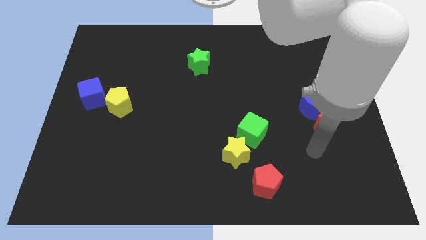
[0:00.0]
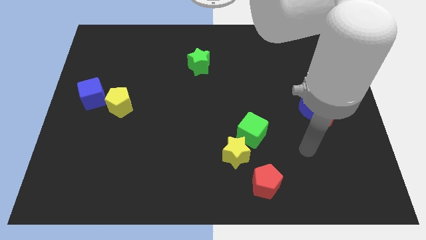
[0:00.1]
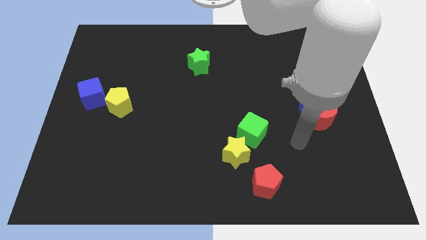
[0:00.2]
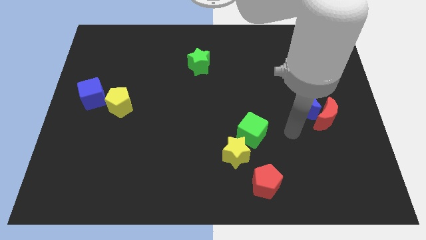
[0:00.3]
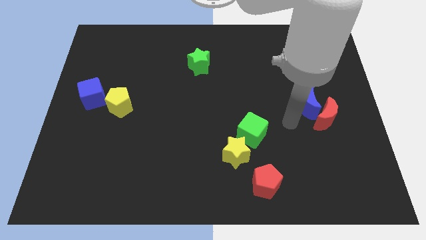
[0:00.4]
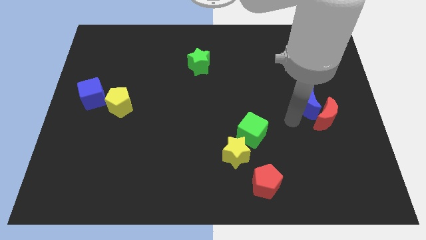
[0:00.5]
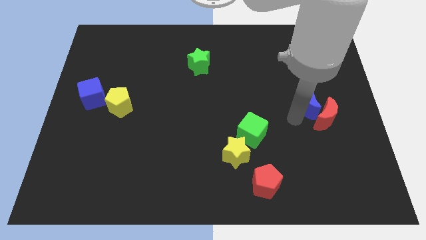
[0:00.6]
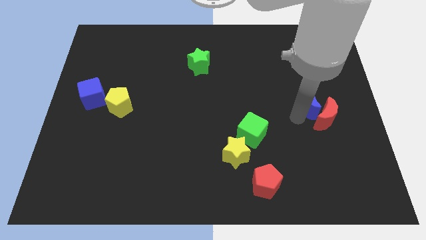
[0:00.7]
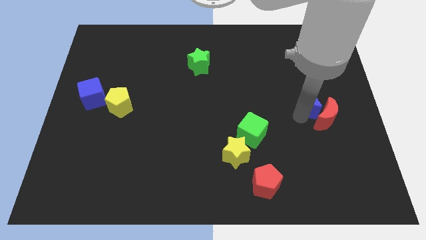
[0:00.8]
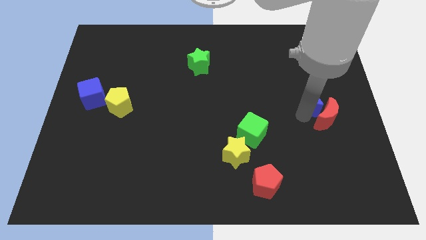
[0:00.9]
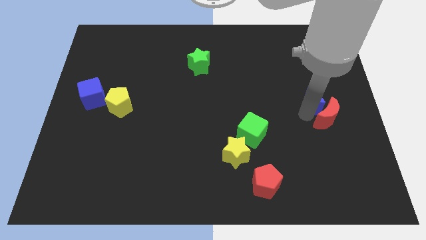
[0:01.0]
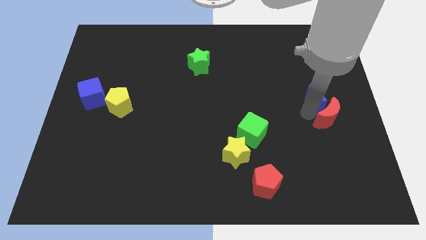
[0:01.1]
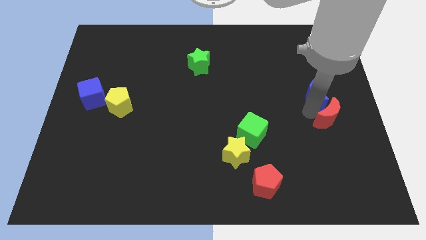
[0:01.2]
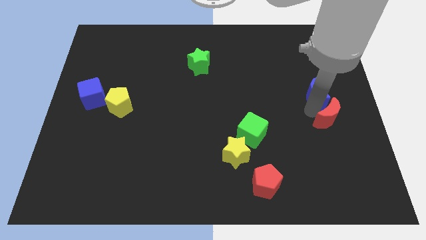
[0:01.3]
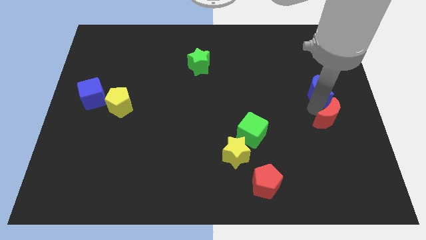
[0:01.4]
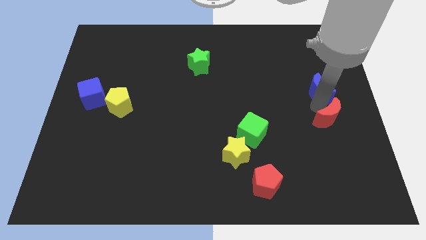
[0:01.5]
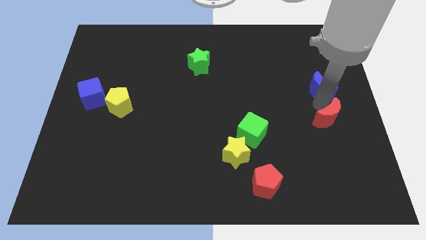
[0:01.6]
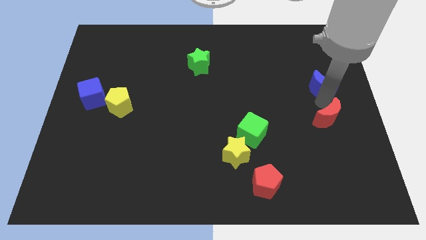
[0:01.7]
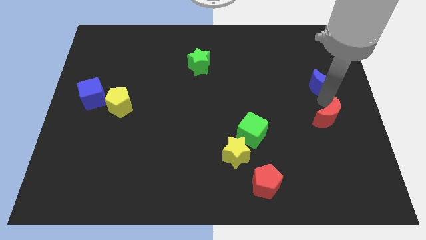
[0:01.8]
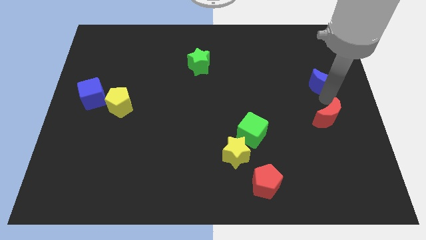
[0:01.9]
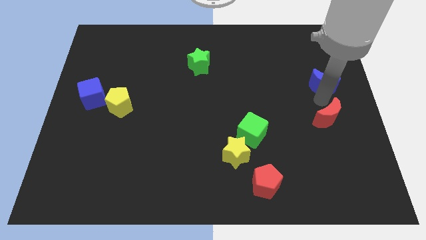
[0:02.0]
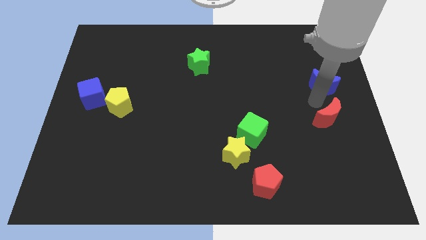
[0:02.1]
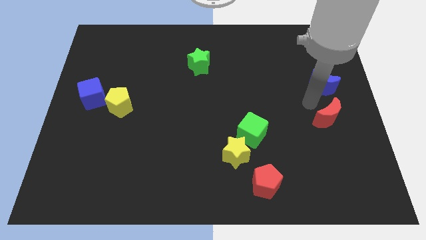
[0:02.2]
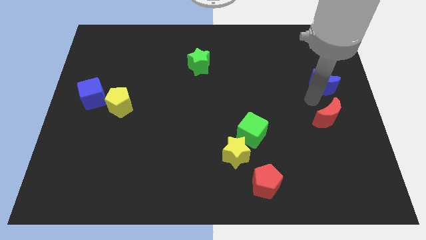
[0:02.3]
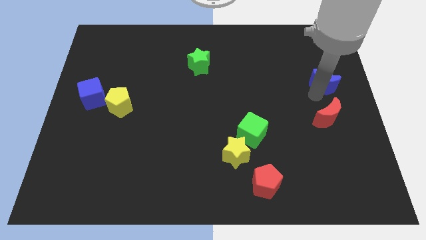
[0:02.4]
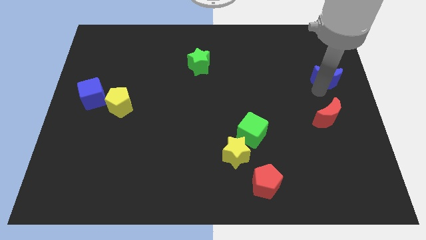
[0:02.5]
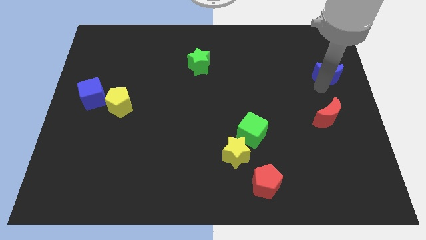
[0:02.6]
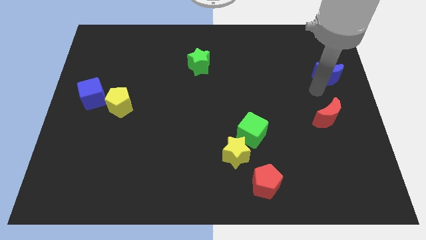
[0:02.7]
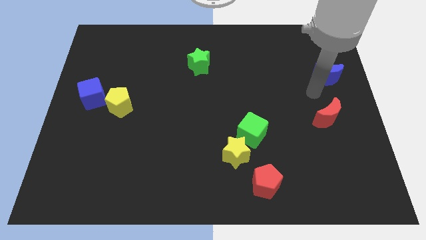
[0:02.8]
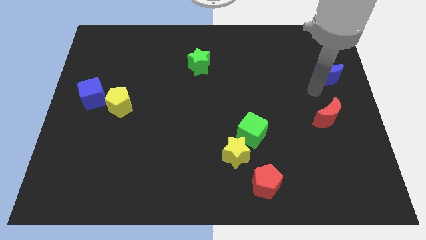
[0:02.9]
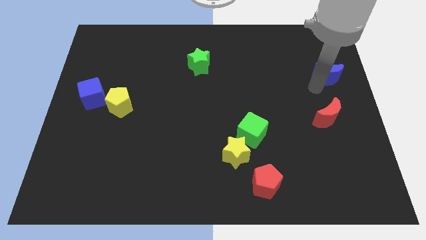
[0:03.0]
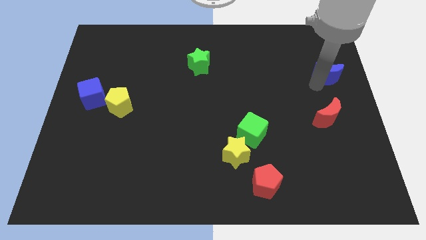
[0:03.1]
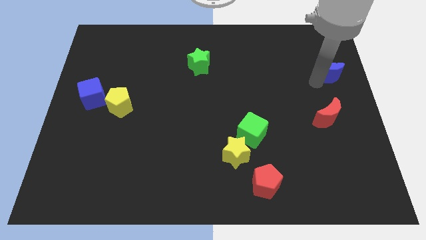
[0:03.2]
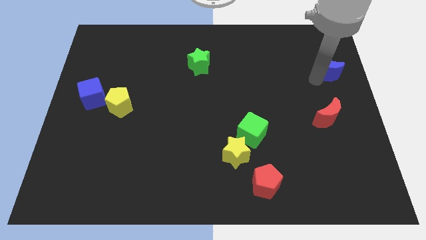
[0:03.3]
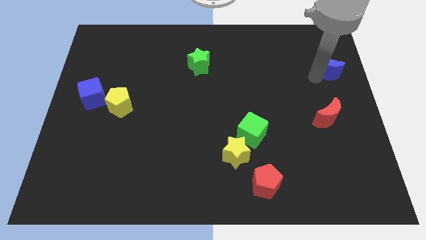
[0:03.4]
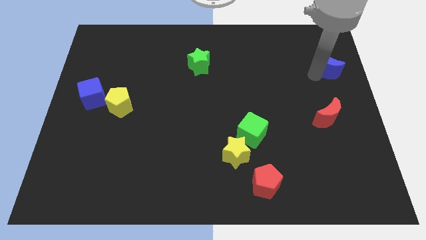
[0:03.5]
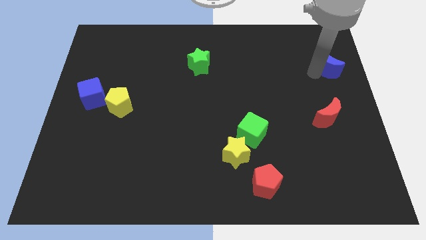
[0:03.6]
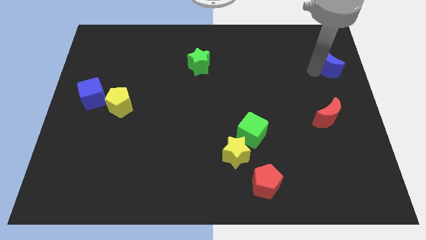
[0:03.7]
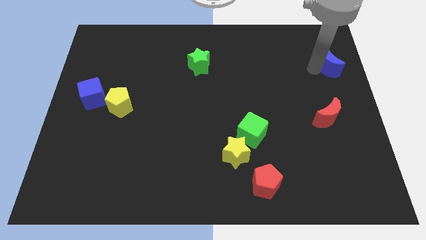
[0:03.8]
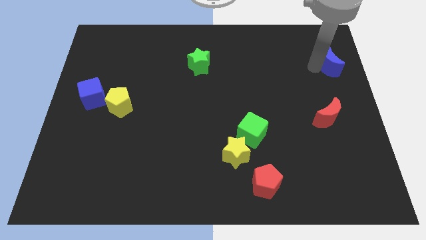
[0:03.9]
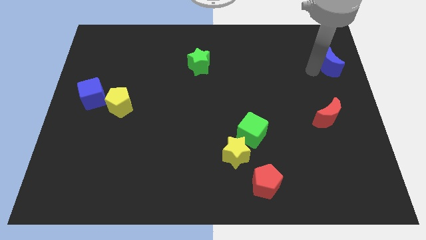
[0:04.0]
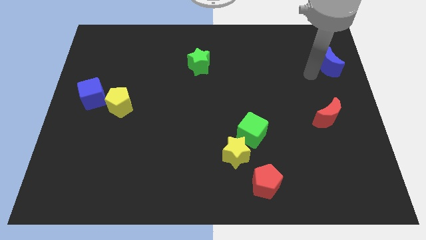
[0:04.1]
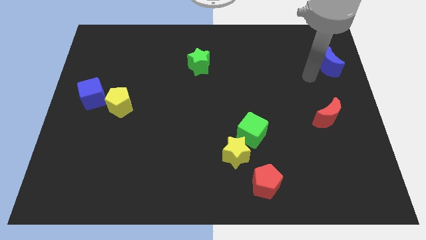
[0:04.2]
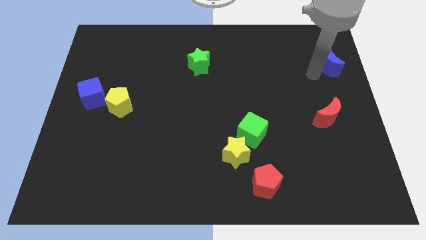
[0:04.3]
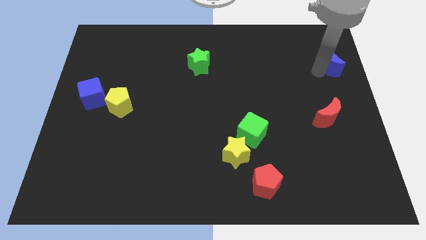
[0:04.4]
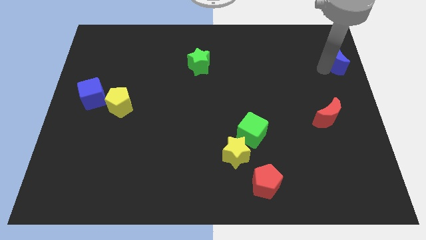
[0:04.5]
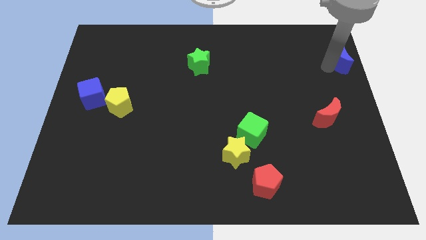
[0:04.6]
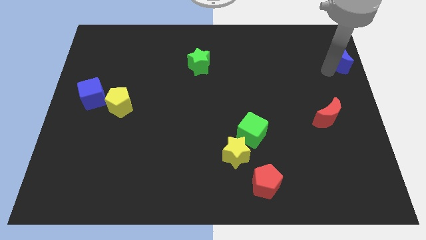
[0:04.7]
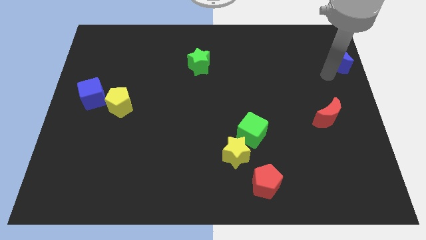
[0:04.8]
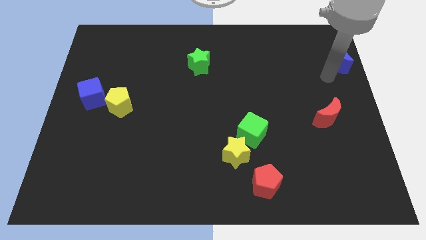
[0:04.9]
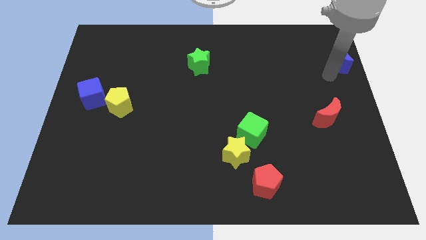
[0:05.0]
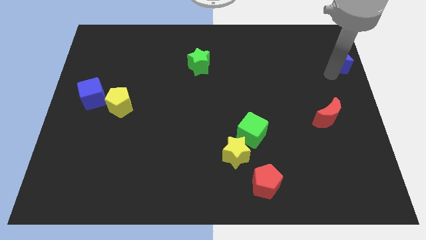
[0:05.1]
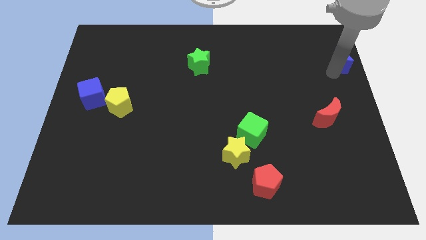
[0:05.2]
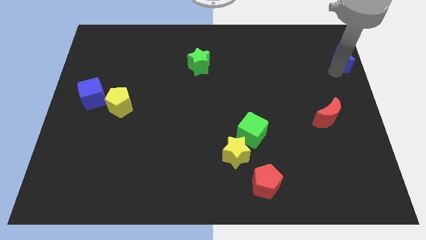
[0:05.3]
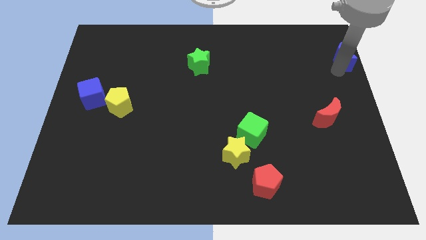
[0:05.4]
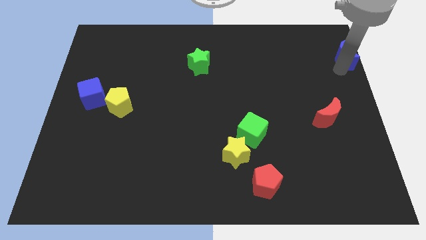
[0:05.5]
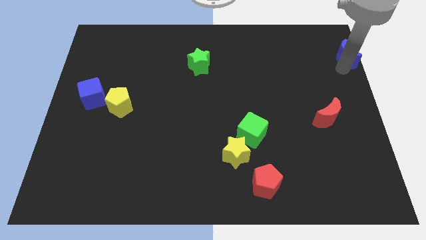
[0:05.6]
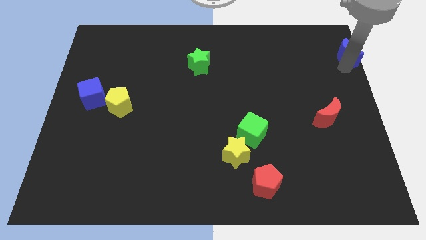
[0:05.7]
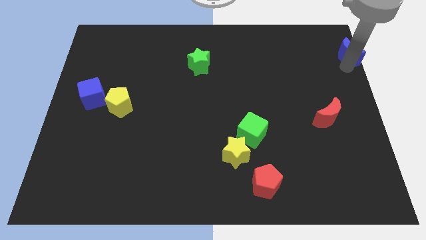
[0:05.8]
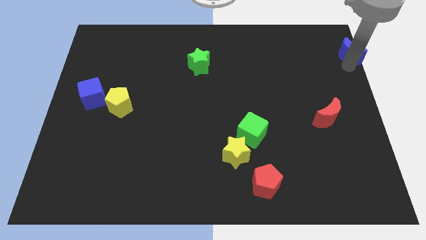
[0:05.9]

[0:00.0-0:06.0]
push the blue moon to the top right

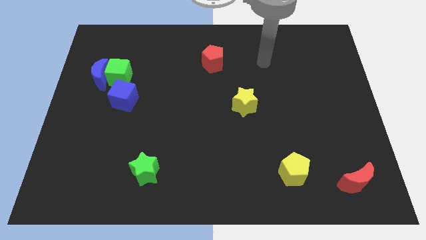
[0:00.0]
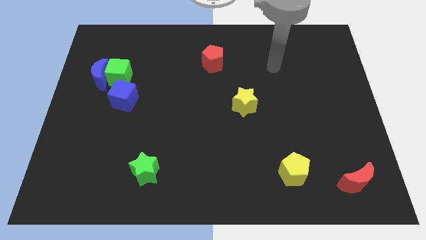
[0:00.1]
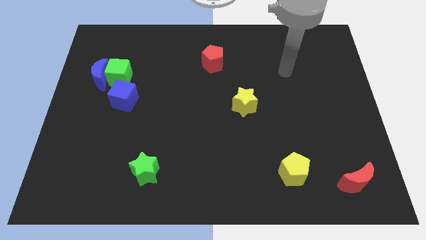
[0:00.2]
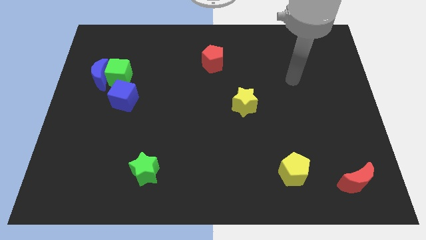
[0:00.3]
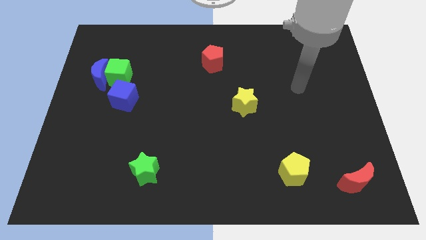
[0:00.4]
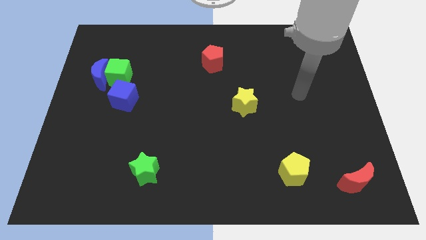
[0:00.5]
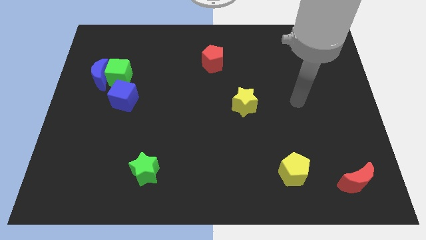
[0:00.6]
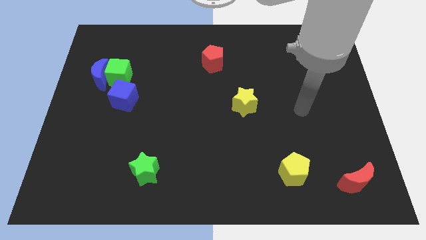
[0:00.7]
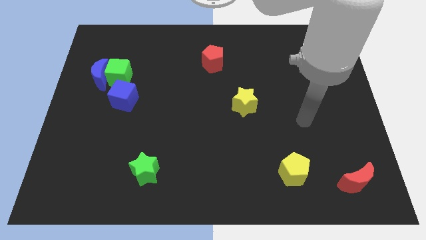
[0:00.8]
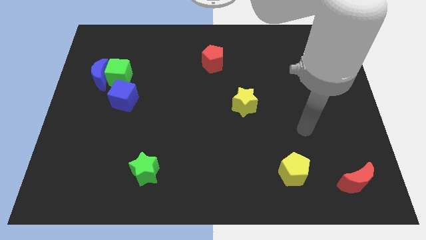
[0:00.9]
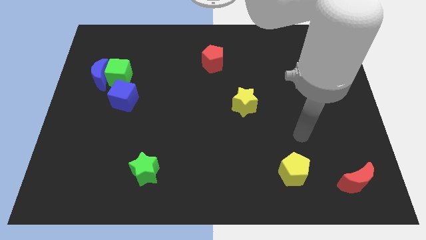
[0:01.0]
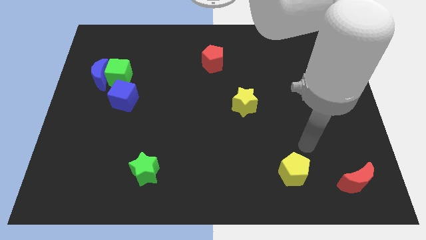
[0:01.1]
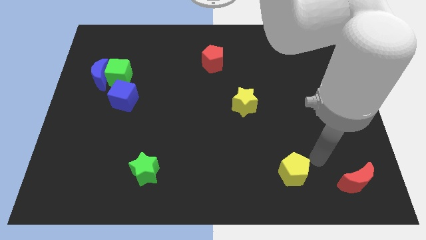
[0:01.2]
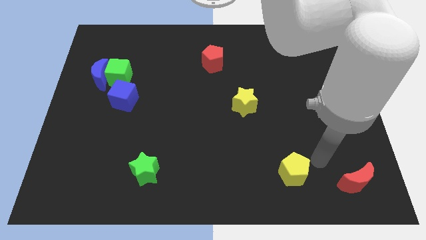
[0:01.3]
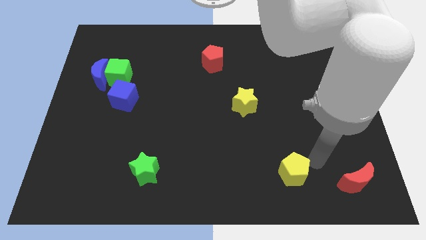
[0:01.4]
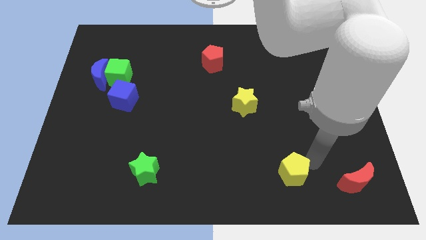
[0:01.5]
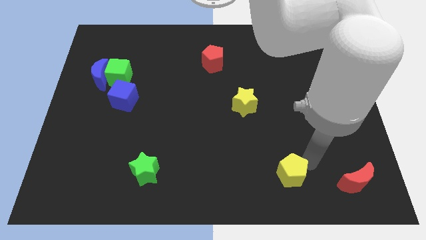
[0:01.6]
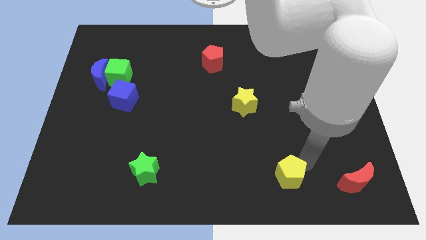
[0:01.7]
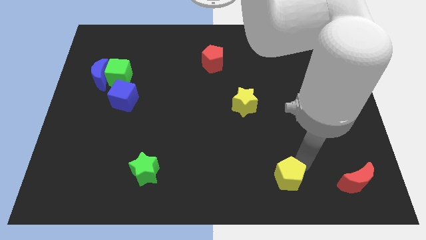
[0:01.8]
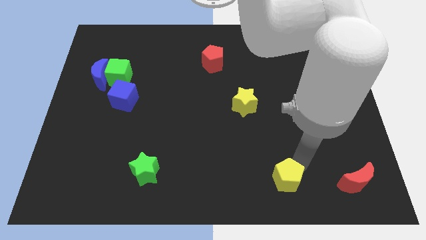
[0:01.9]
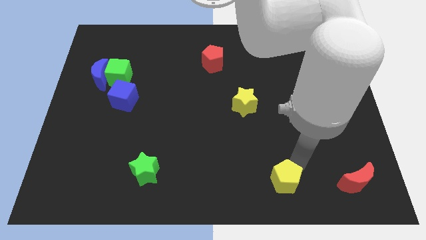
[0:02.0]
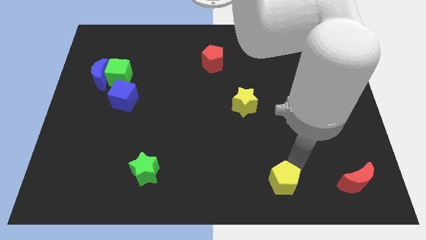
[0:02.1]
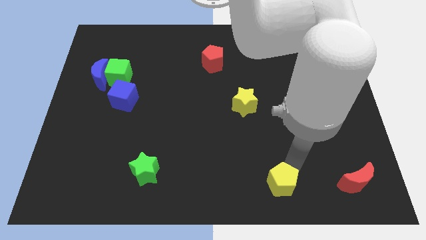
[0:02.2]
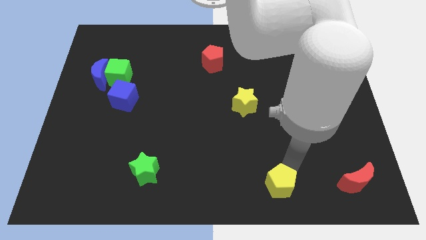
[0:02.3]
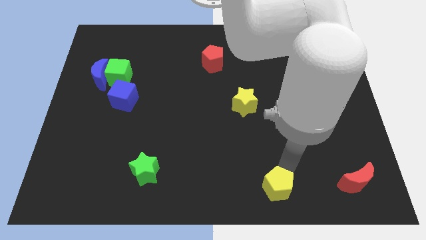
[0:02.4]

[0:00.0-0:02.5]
slide the yellow pentagon to the bottom
